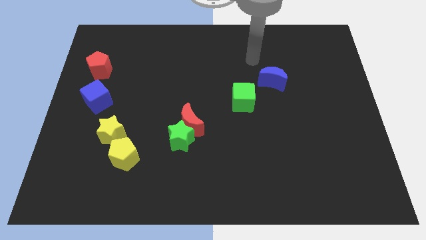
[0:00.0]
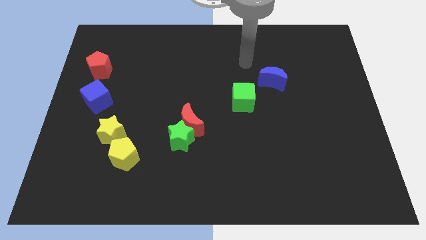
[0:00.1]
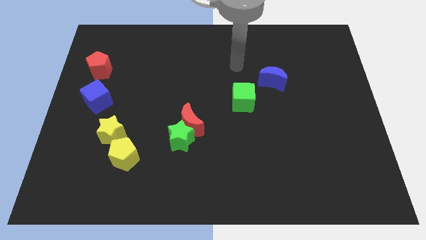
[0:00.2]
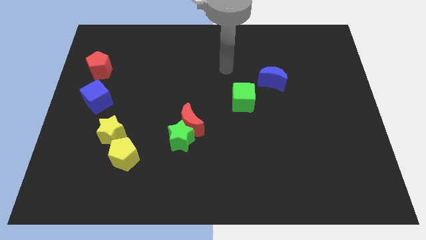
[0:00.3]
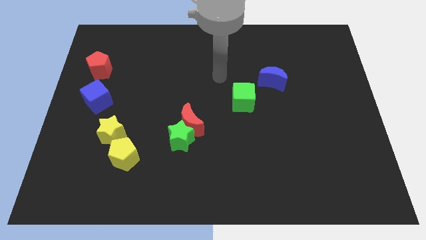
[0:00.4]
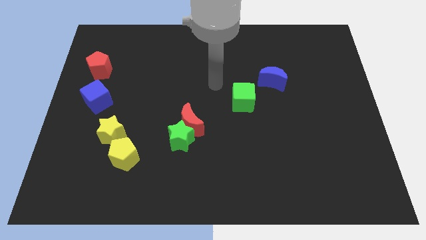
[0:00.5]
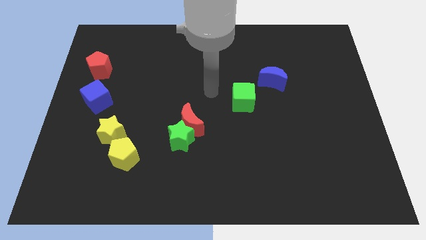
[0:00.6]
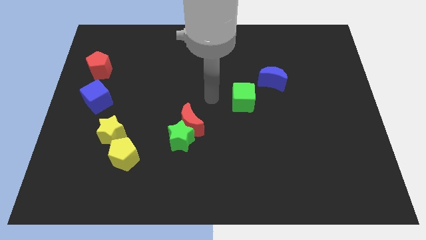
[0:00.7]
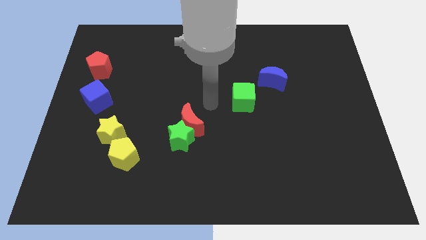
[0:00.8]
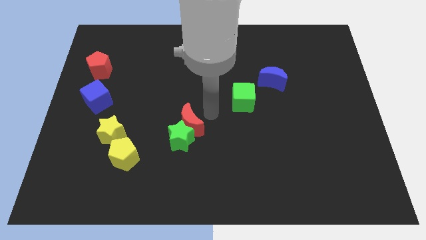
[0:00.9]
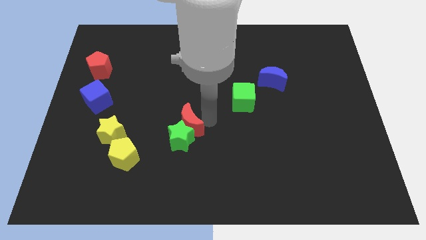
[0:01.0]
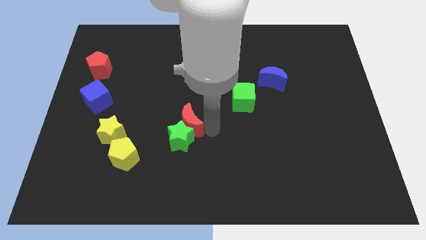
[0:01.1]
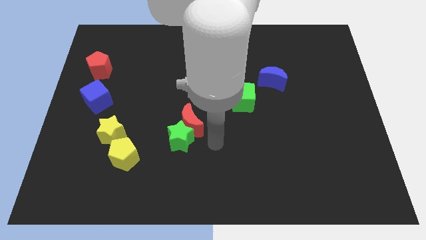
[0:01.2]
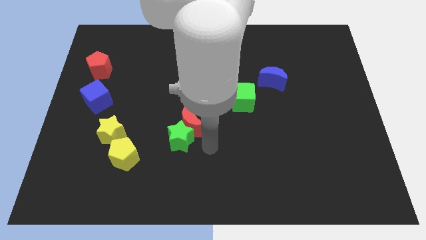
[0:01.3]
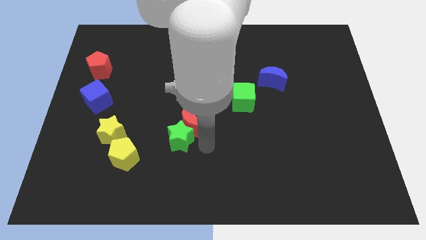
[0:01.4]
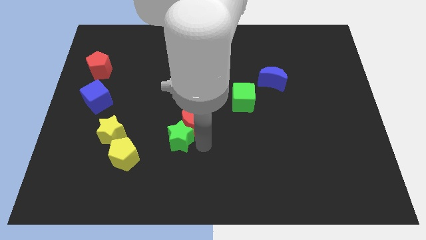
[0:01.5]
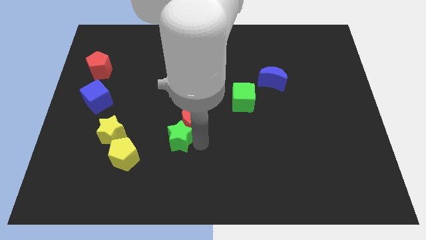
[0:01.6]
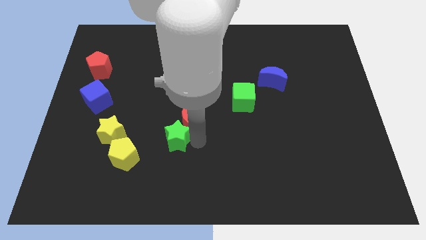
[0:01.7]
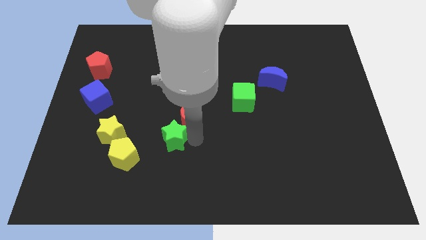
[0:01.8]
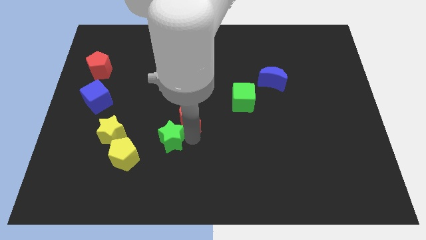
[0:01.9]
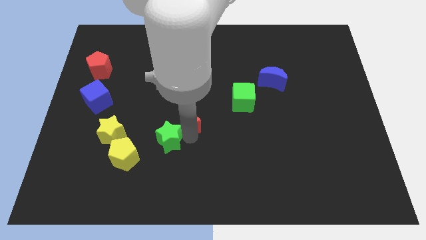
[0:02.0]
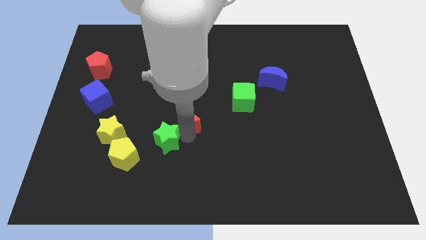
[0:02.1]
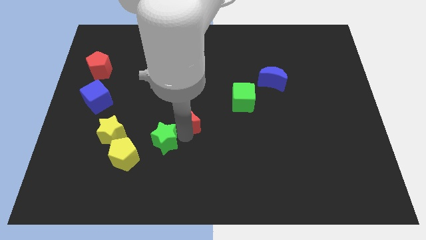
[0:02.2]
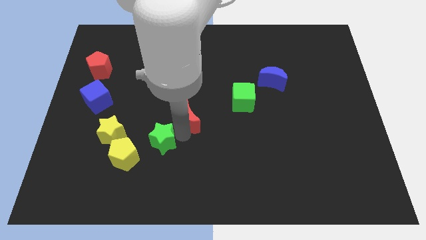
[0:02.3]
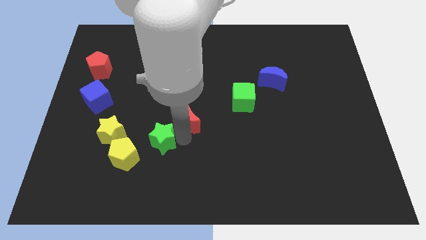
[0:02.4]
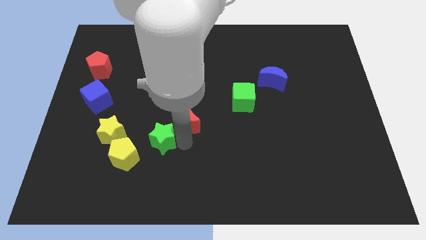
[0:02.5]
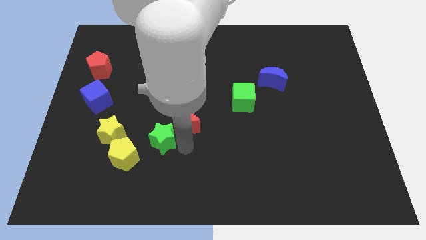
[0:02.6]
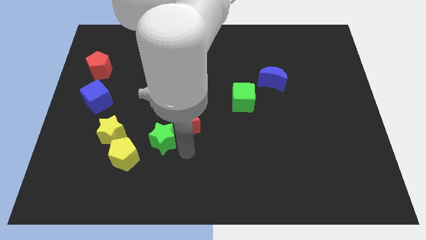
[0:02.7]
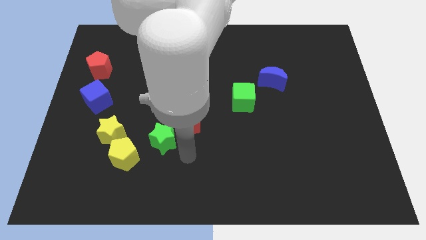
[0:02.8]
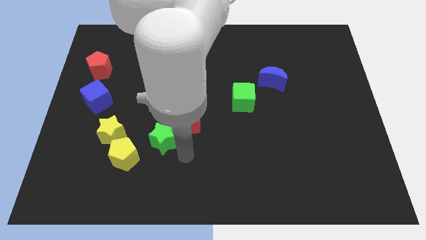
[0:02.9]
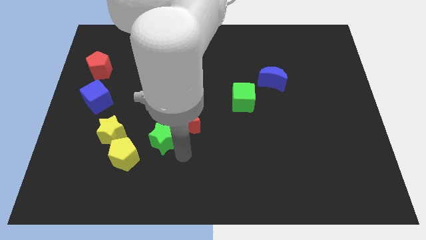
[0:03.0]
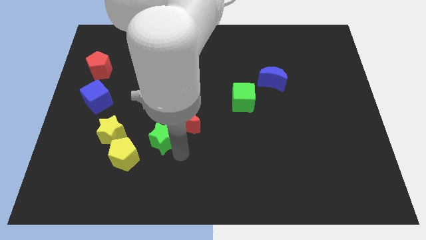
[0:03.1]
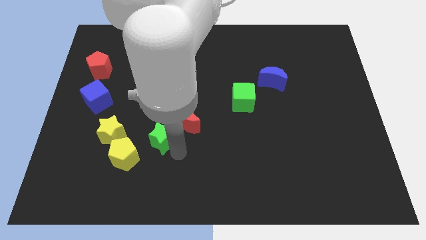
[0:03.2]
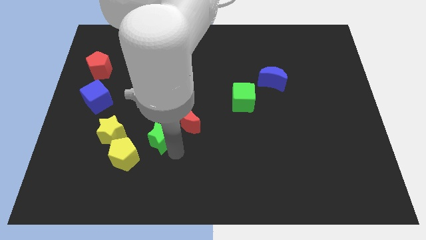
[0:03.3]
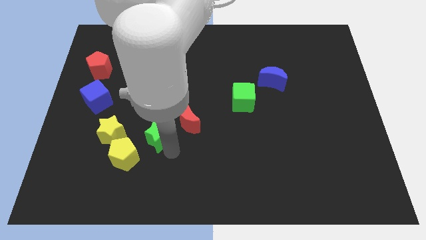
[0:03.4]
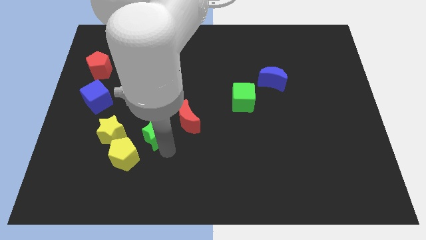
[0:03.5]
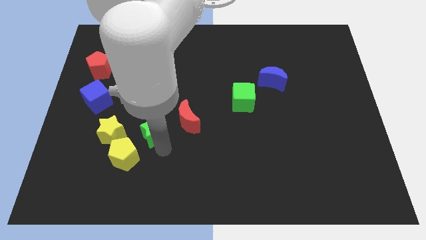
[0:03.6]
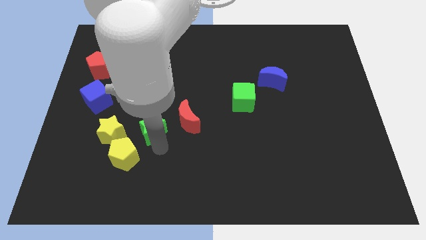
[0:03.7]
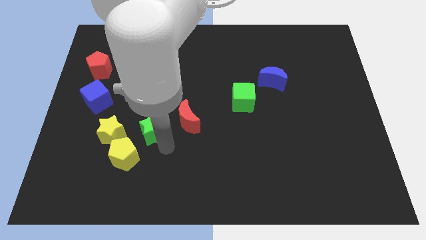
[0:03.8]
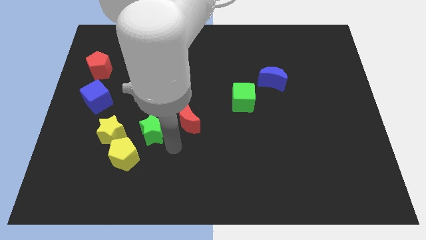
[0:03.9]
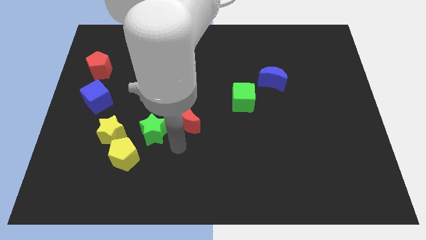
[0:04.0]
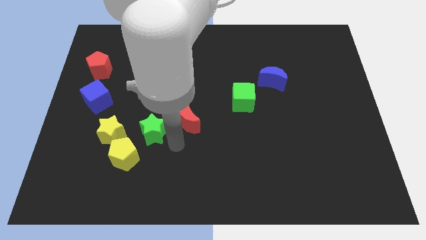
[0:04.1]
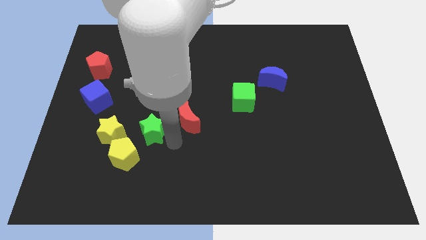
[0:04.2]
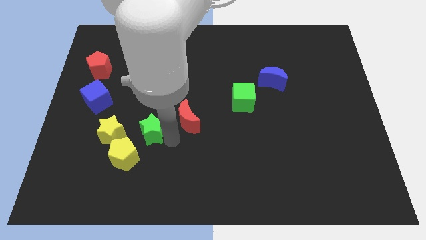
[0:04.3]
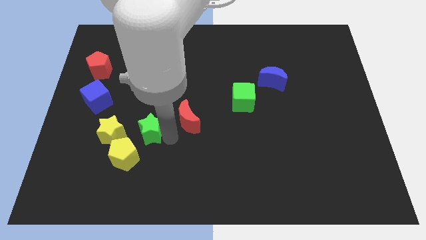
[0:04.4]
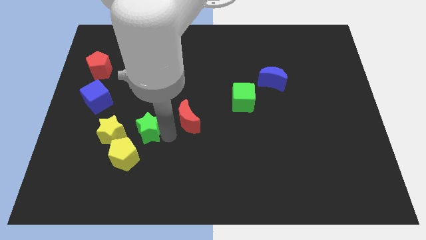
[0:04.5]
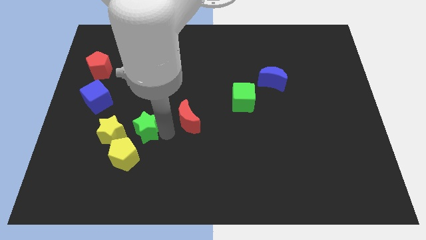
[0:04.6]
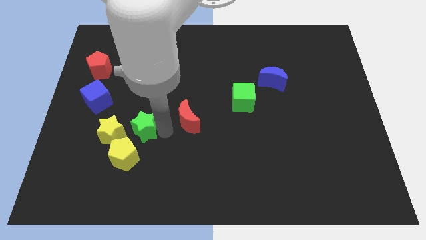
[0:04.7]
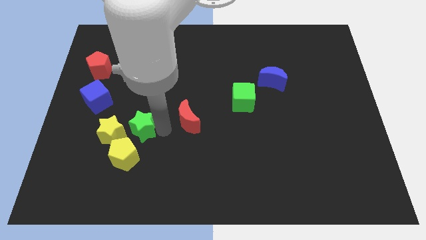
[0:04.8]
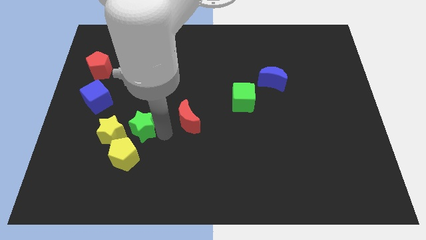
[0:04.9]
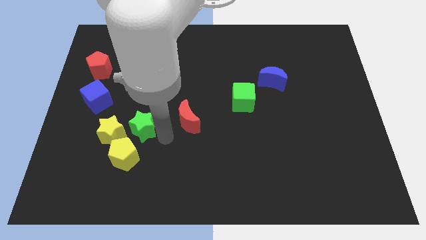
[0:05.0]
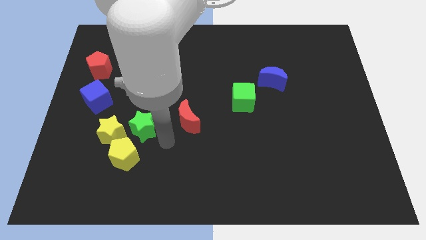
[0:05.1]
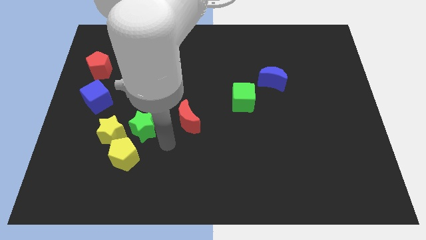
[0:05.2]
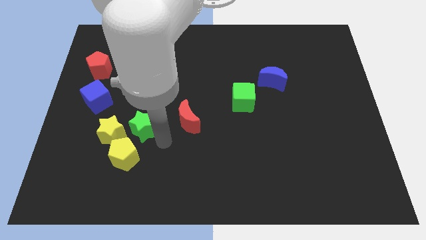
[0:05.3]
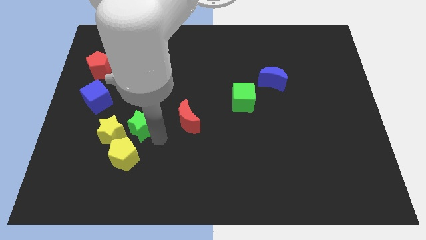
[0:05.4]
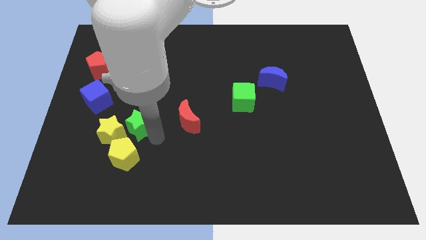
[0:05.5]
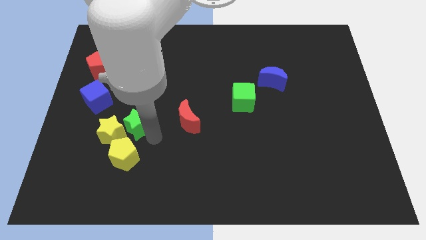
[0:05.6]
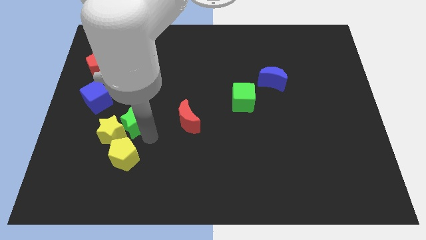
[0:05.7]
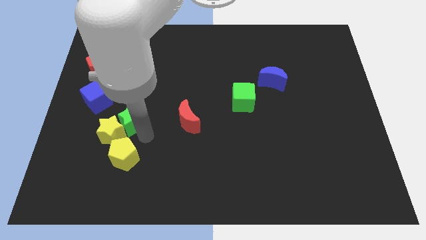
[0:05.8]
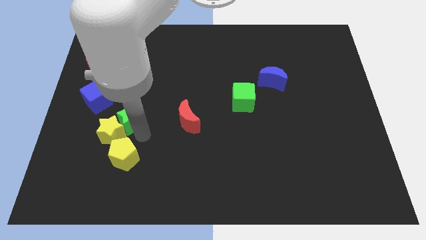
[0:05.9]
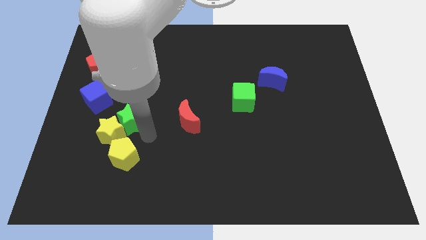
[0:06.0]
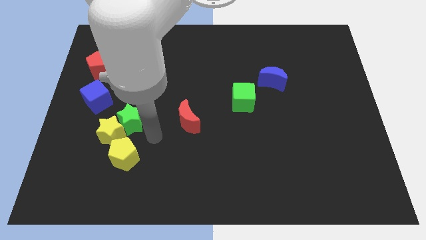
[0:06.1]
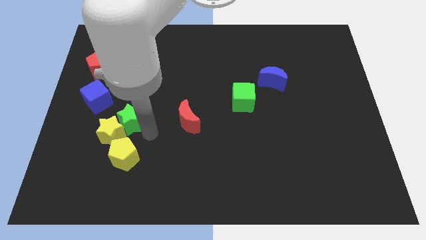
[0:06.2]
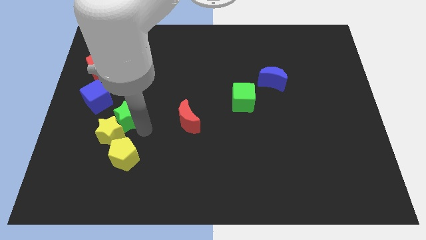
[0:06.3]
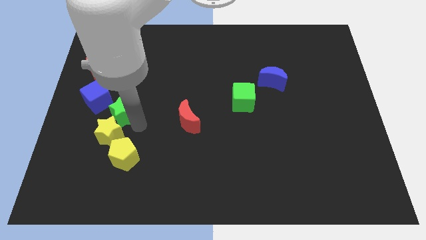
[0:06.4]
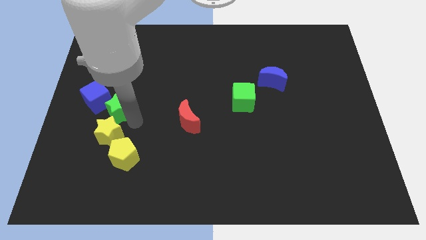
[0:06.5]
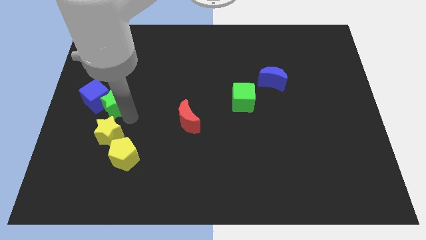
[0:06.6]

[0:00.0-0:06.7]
slide the green star close to the blue cube

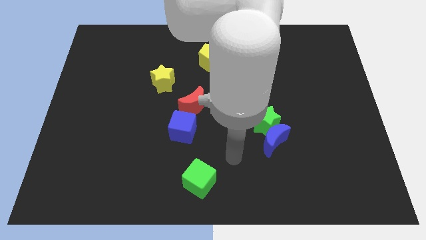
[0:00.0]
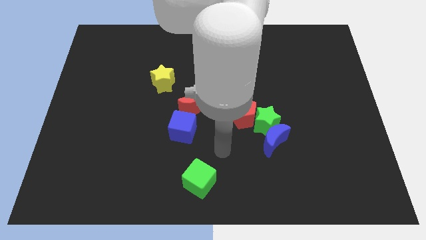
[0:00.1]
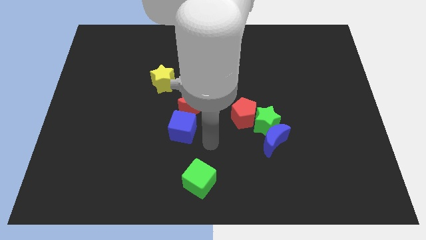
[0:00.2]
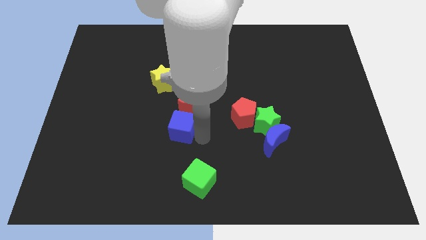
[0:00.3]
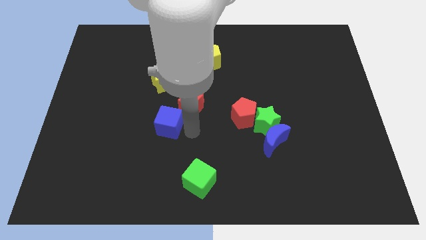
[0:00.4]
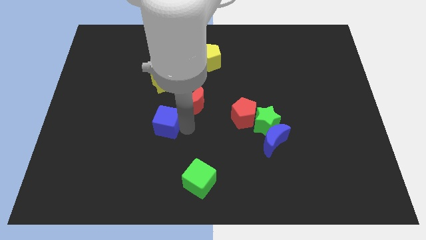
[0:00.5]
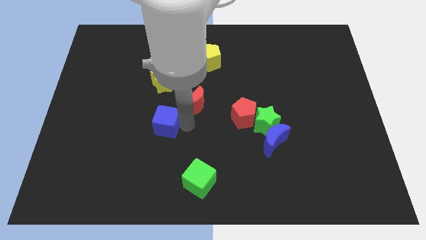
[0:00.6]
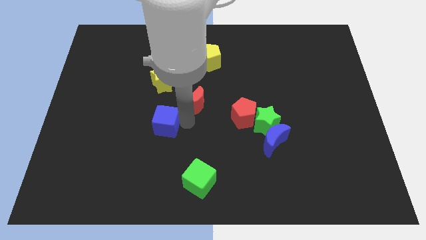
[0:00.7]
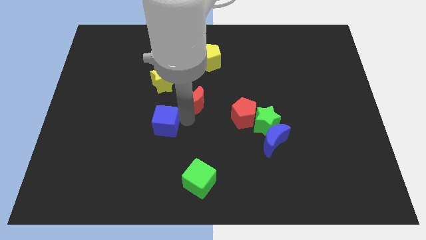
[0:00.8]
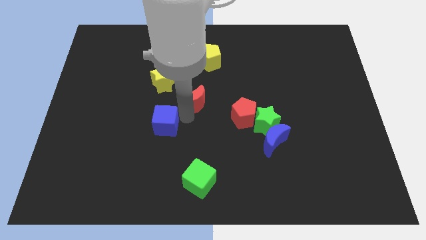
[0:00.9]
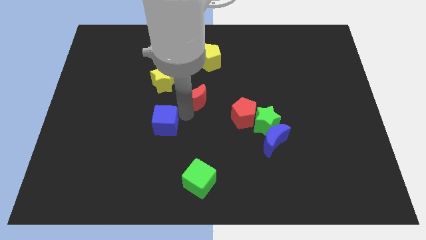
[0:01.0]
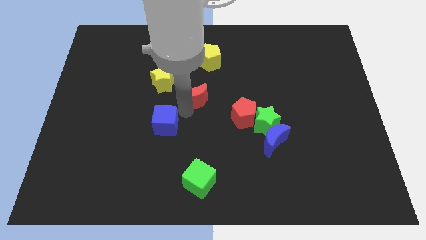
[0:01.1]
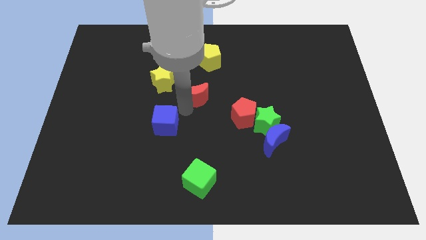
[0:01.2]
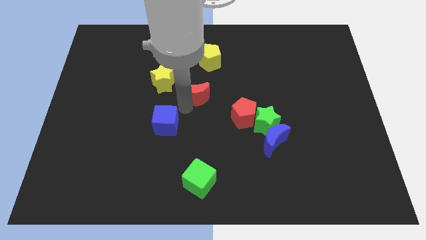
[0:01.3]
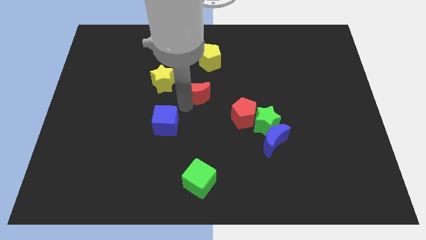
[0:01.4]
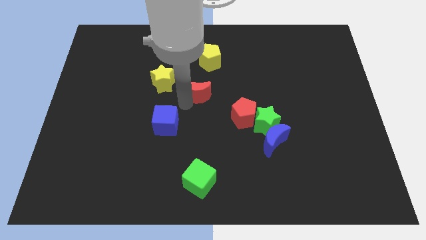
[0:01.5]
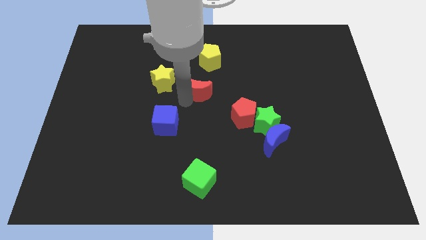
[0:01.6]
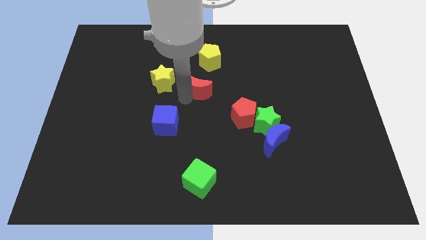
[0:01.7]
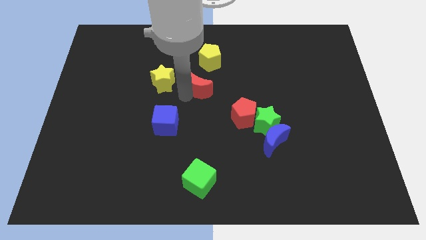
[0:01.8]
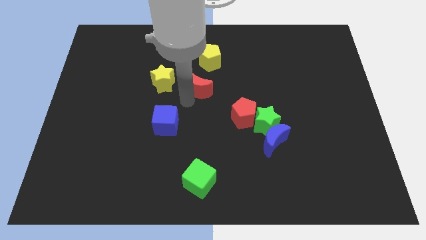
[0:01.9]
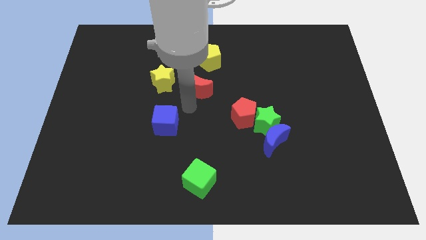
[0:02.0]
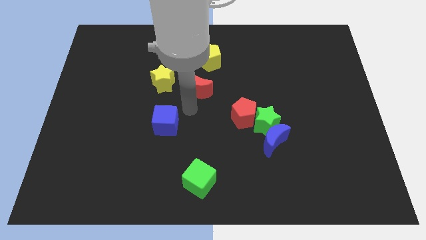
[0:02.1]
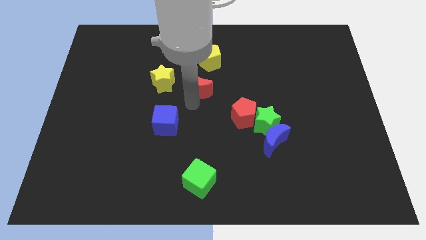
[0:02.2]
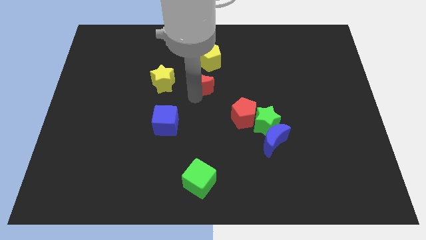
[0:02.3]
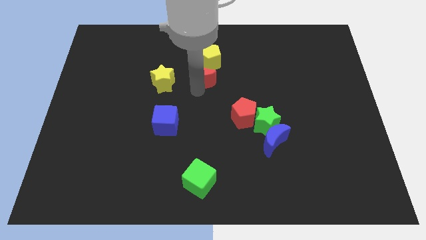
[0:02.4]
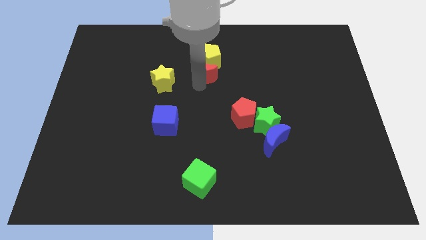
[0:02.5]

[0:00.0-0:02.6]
move the red moon close to the yellow pentagon
